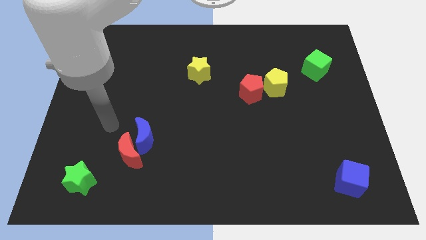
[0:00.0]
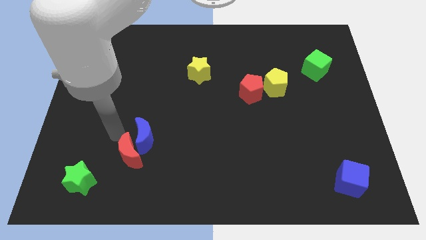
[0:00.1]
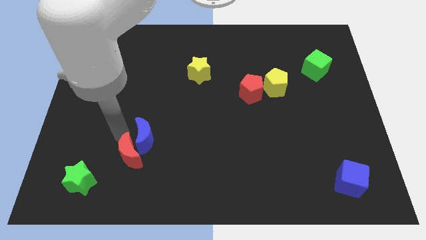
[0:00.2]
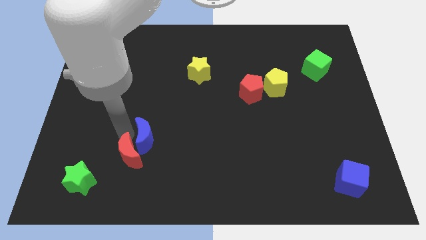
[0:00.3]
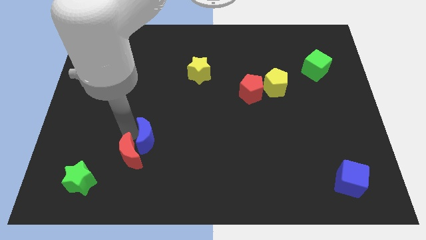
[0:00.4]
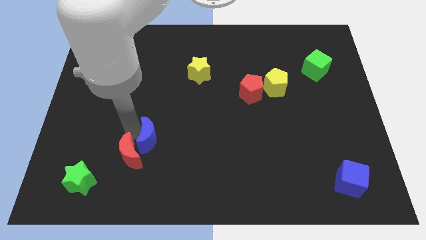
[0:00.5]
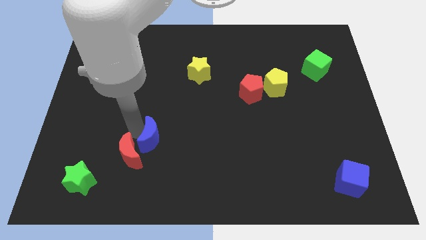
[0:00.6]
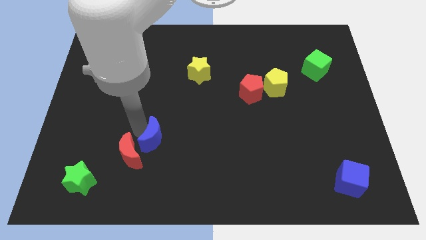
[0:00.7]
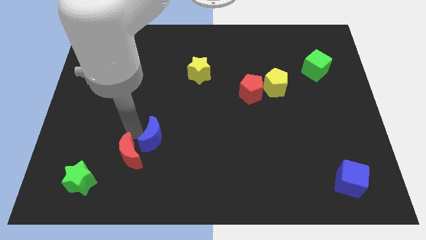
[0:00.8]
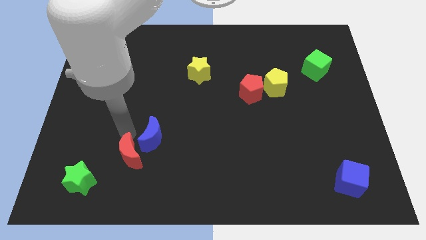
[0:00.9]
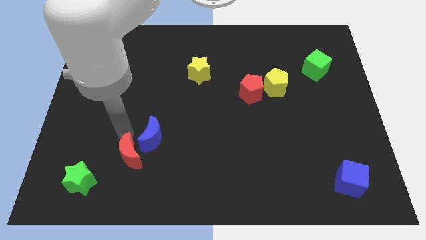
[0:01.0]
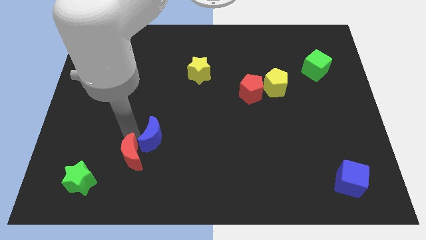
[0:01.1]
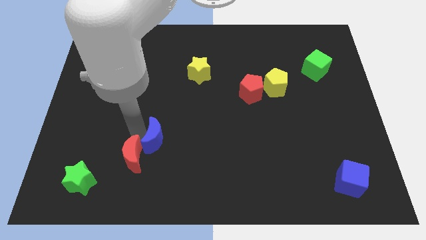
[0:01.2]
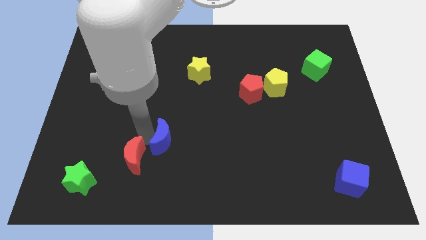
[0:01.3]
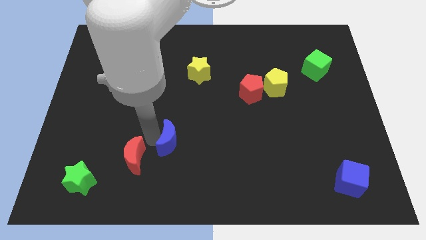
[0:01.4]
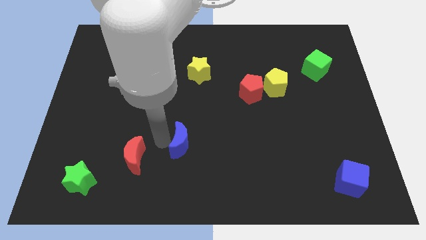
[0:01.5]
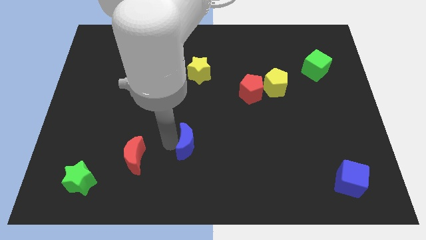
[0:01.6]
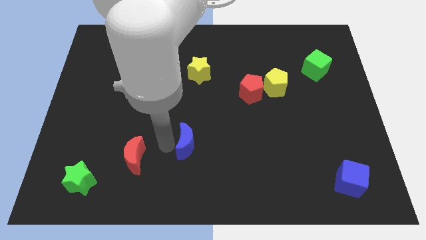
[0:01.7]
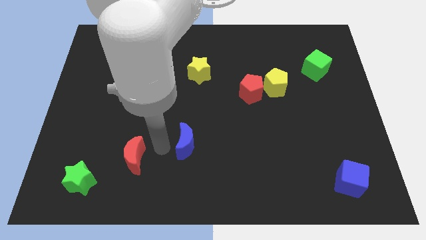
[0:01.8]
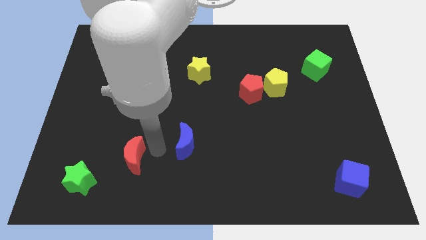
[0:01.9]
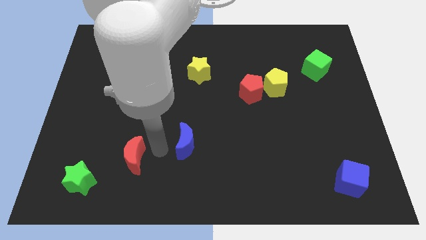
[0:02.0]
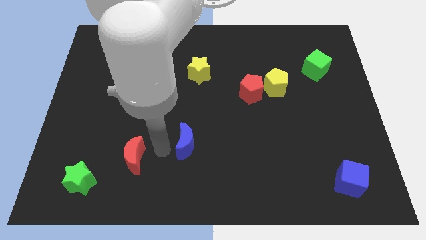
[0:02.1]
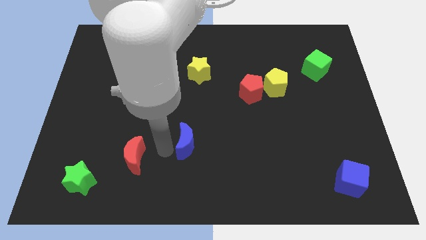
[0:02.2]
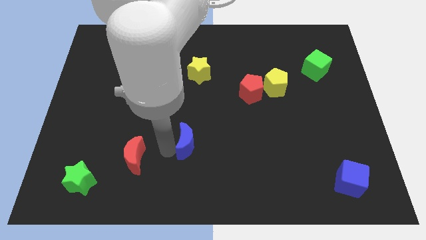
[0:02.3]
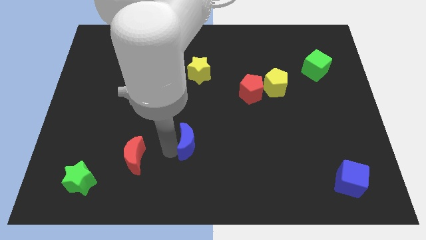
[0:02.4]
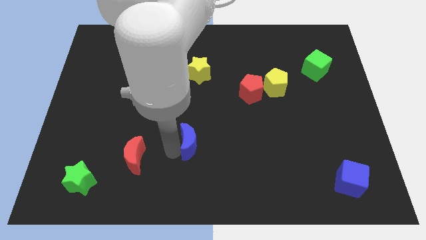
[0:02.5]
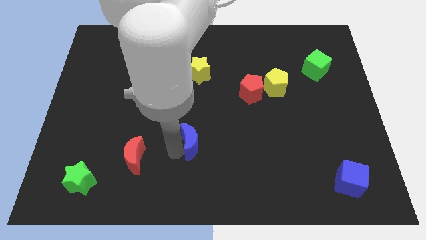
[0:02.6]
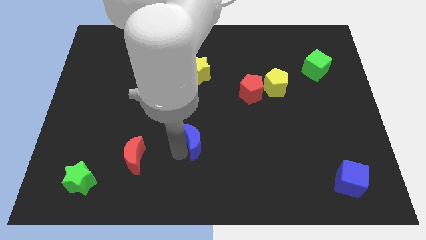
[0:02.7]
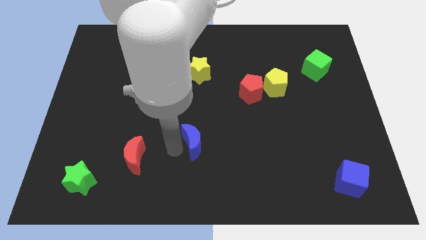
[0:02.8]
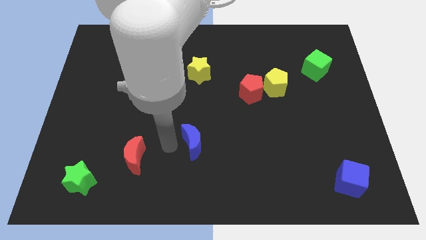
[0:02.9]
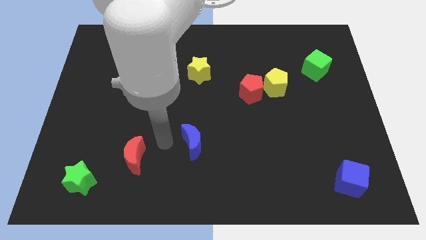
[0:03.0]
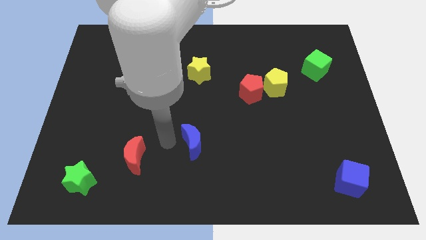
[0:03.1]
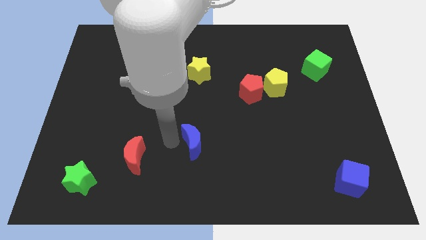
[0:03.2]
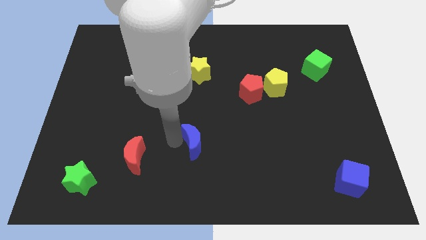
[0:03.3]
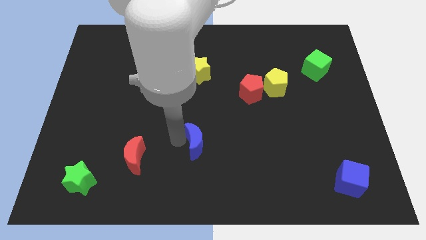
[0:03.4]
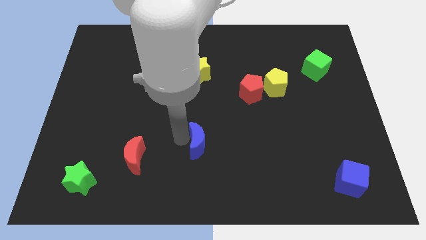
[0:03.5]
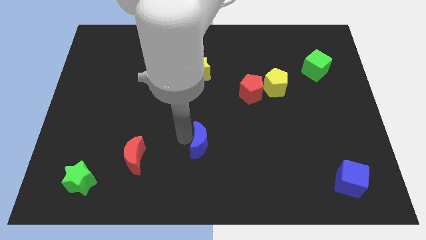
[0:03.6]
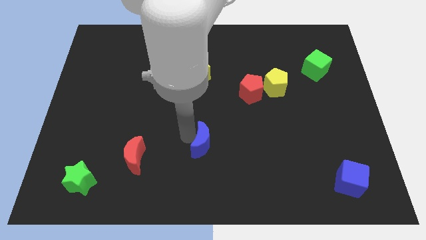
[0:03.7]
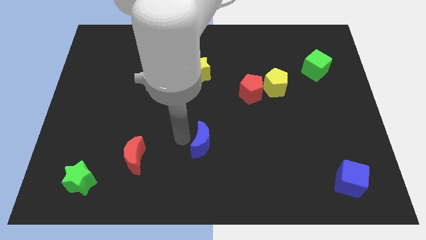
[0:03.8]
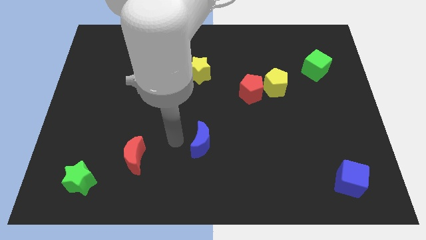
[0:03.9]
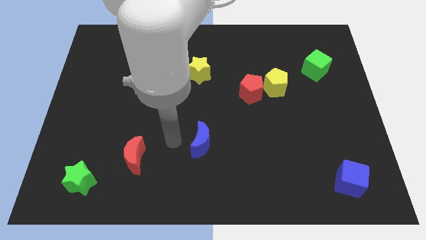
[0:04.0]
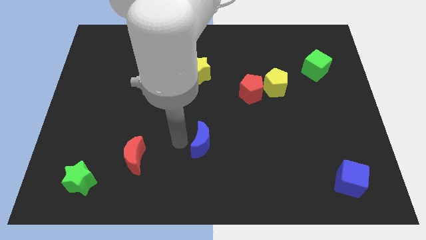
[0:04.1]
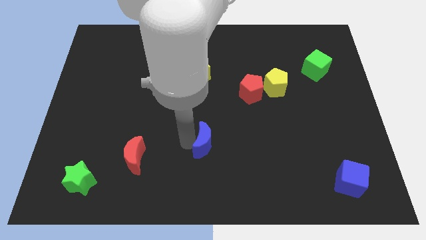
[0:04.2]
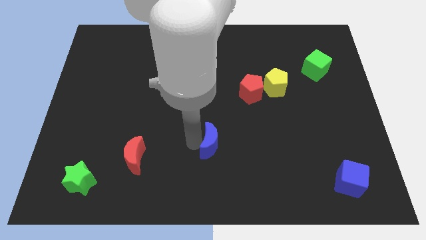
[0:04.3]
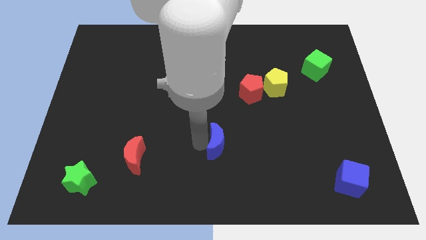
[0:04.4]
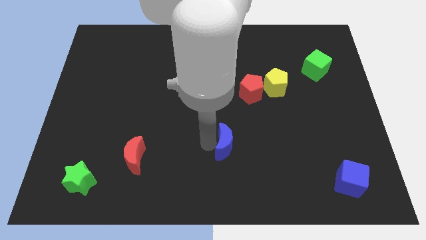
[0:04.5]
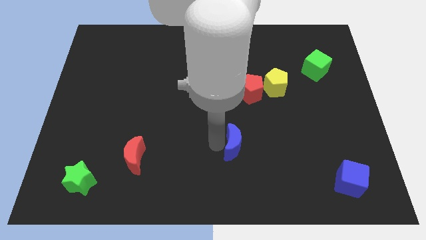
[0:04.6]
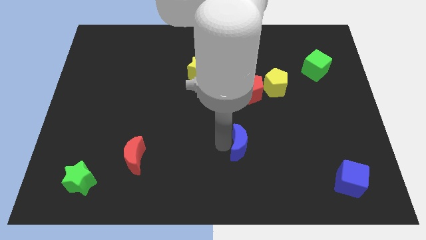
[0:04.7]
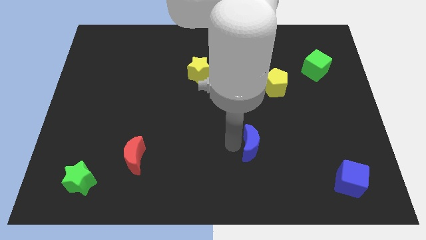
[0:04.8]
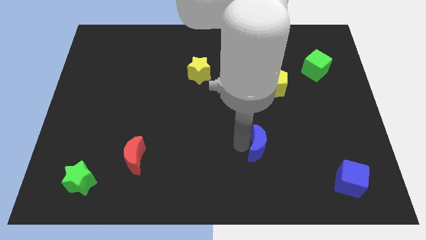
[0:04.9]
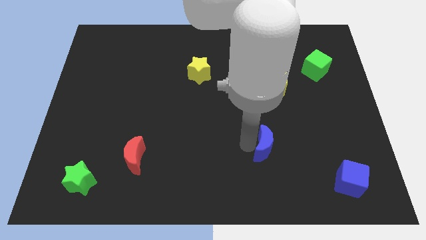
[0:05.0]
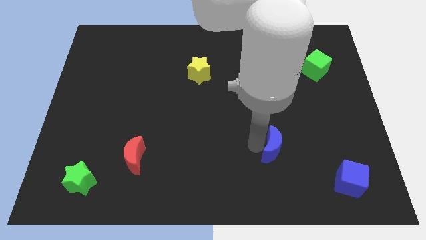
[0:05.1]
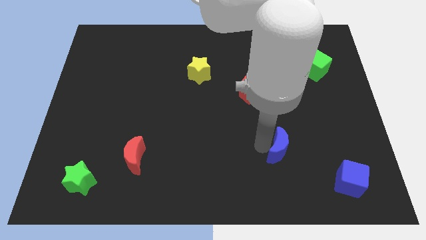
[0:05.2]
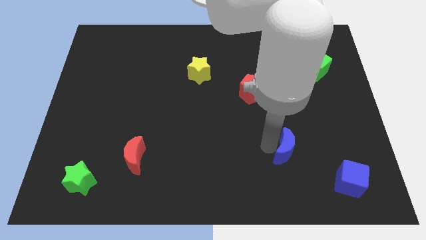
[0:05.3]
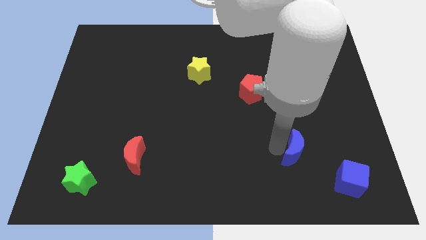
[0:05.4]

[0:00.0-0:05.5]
put the blue moon to the top left side of the blue cube

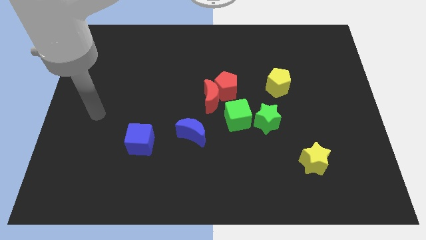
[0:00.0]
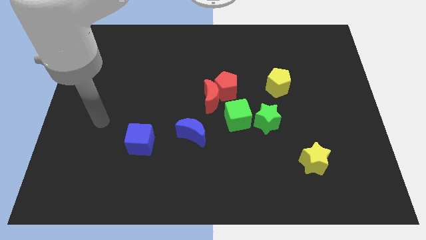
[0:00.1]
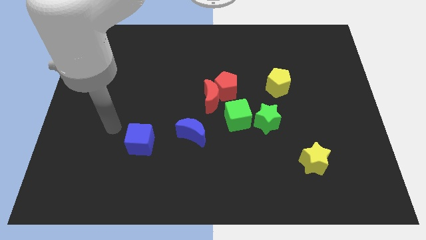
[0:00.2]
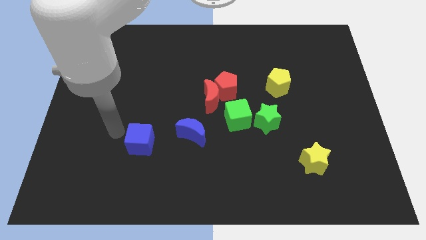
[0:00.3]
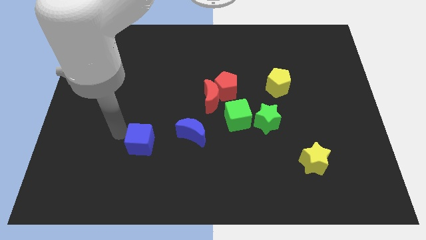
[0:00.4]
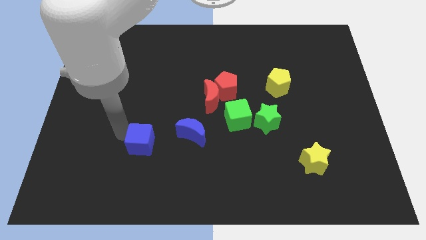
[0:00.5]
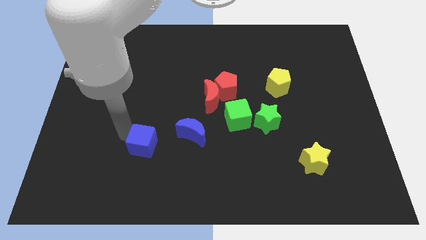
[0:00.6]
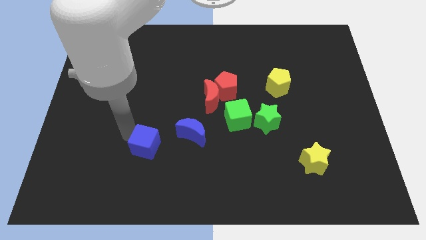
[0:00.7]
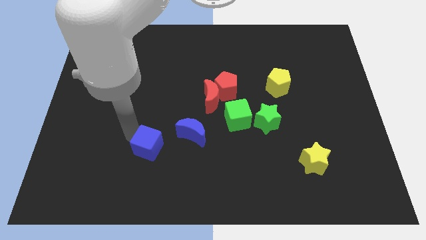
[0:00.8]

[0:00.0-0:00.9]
push the blue cube diagonally down and to the left of the blue moon
